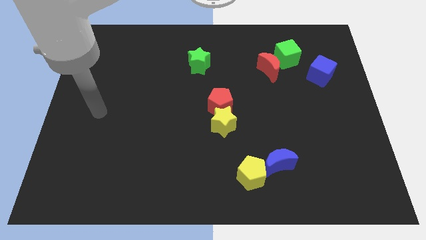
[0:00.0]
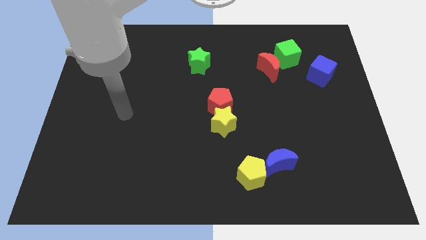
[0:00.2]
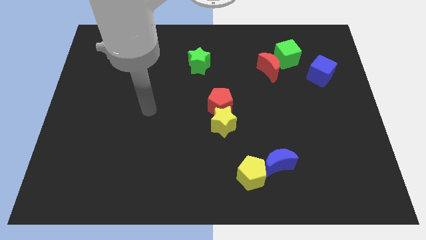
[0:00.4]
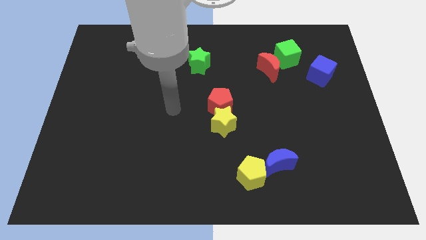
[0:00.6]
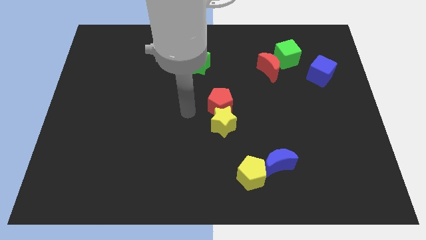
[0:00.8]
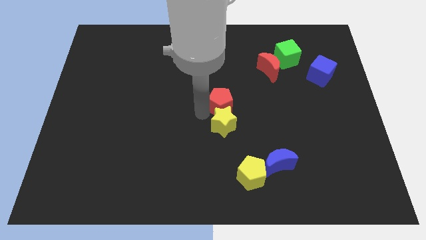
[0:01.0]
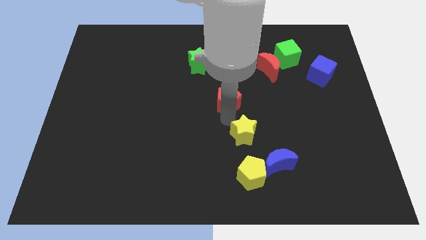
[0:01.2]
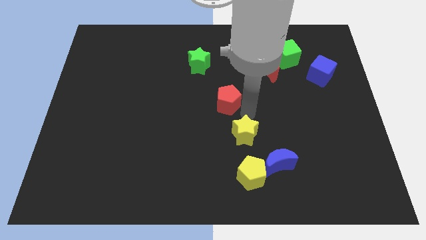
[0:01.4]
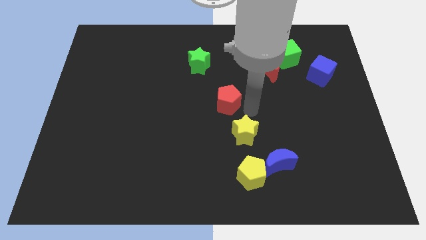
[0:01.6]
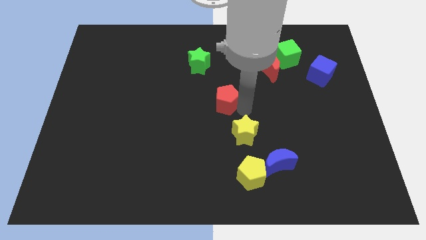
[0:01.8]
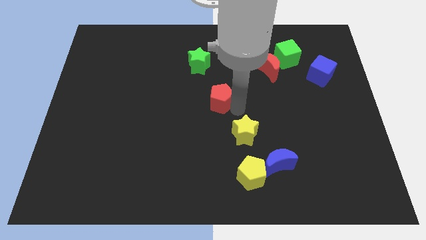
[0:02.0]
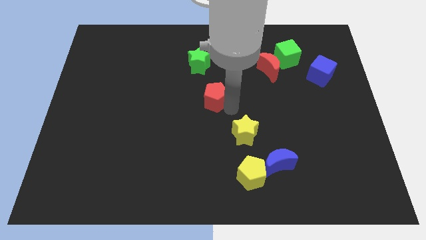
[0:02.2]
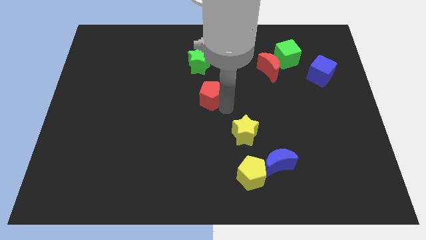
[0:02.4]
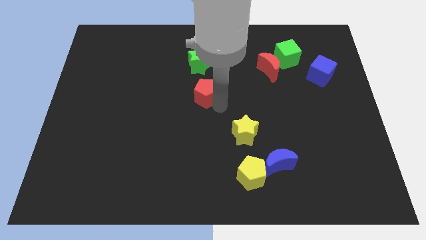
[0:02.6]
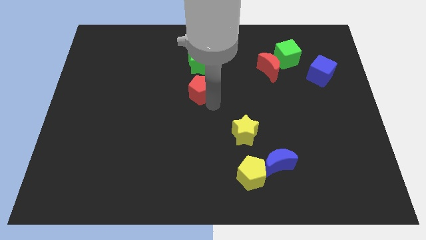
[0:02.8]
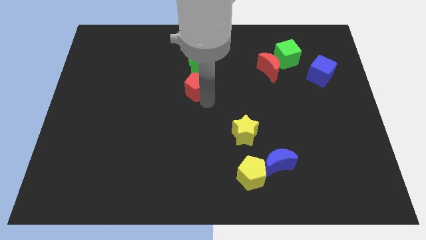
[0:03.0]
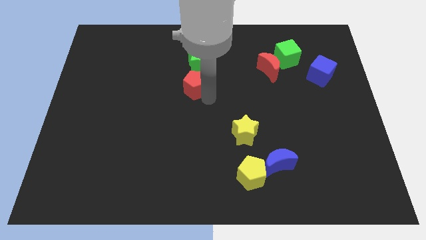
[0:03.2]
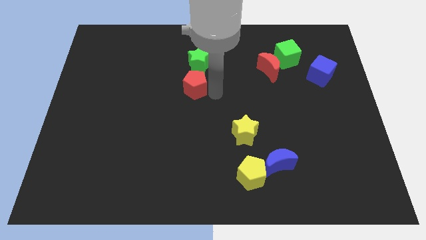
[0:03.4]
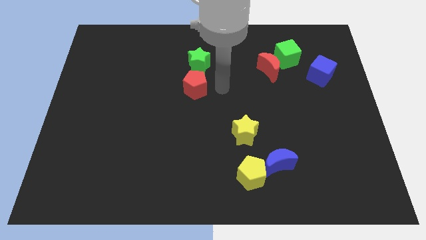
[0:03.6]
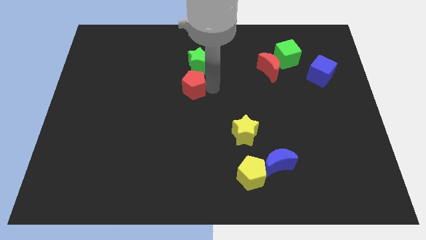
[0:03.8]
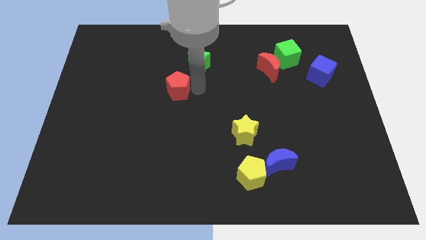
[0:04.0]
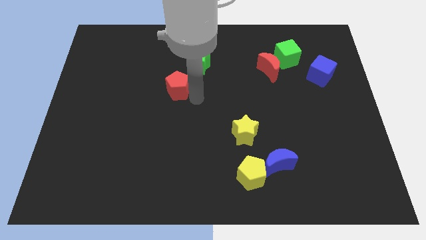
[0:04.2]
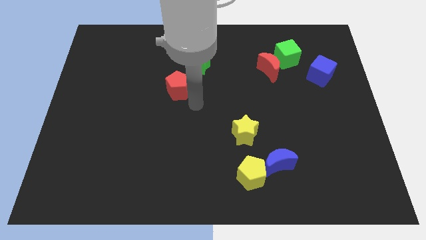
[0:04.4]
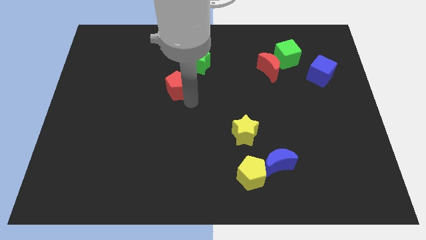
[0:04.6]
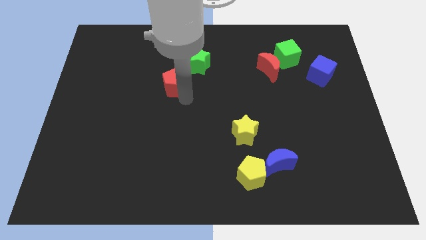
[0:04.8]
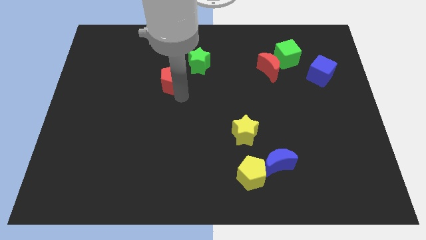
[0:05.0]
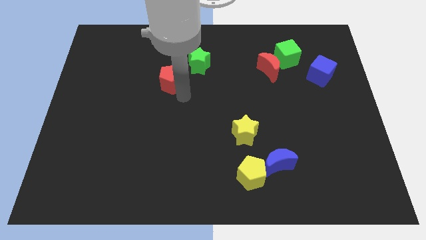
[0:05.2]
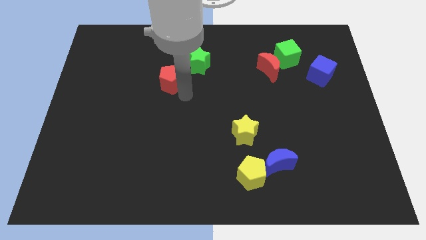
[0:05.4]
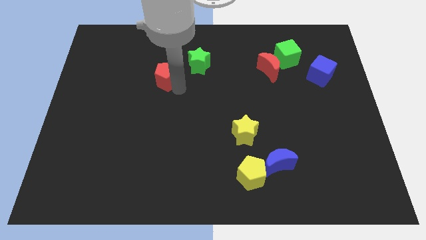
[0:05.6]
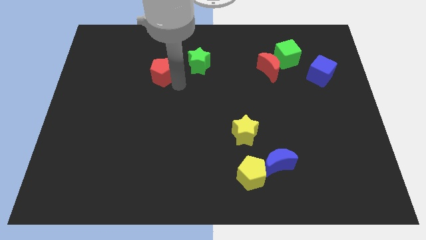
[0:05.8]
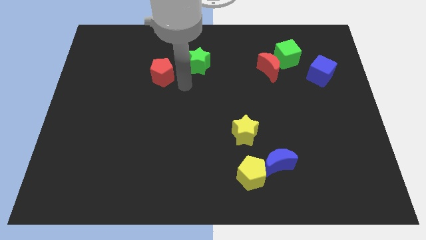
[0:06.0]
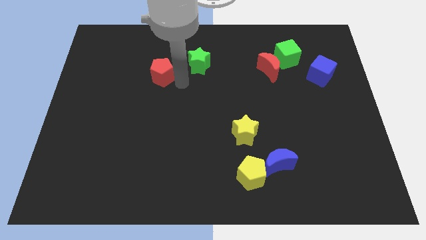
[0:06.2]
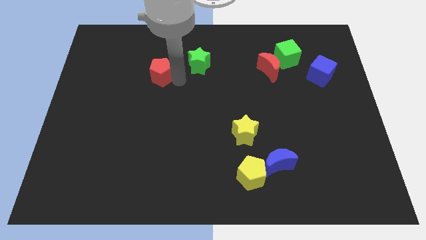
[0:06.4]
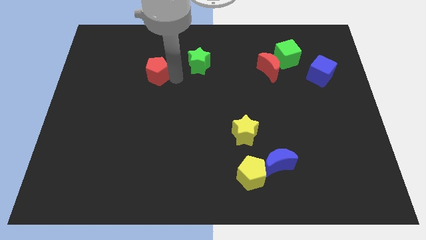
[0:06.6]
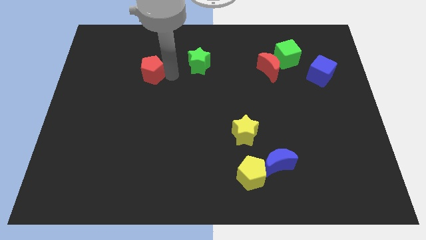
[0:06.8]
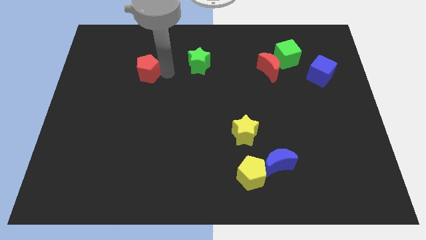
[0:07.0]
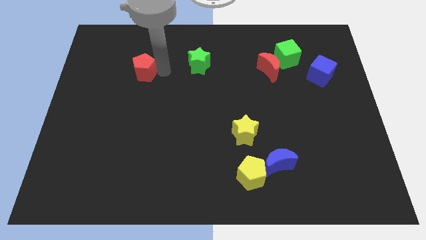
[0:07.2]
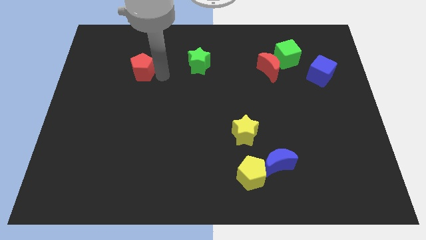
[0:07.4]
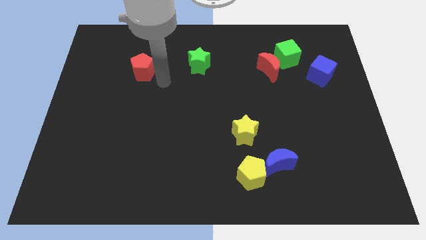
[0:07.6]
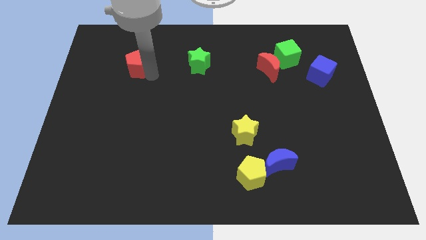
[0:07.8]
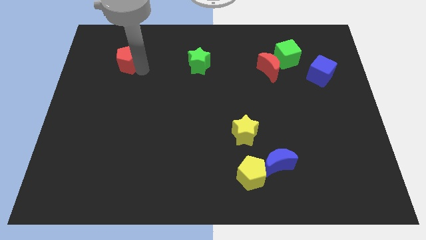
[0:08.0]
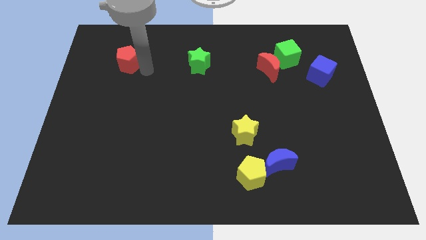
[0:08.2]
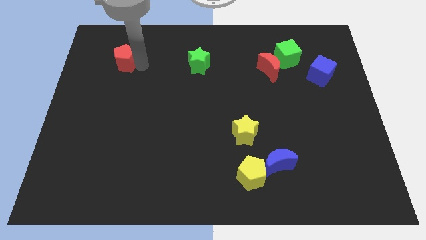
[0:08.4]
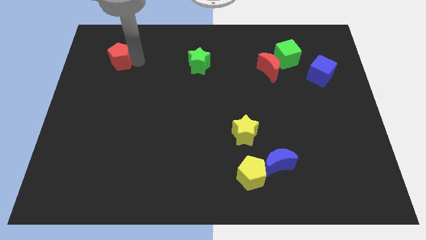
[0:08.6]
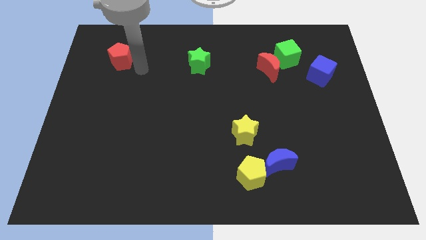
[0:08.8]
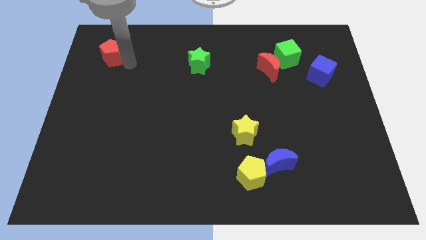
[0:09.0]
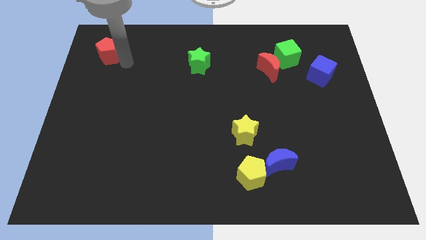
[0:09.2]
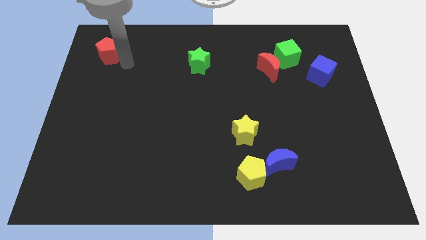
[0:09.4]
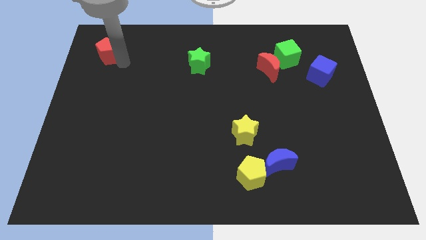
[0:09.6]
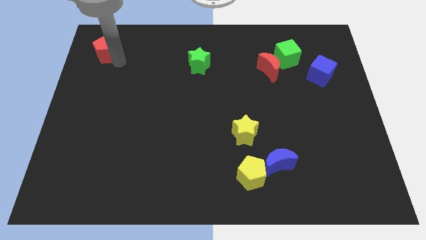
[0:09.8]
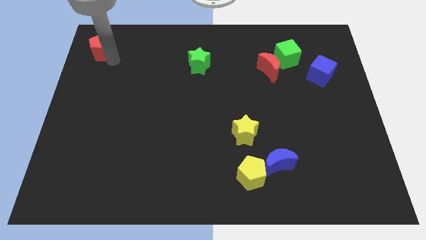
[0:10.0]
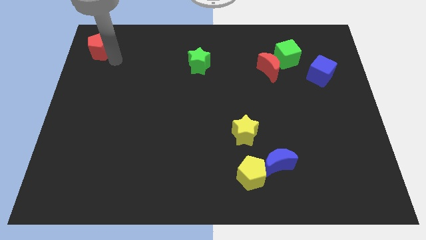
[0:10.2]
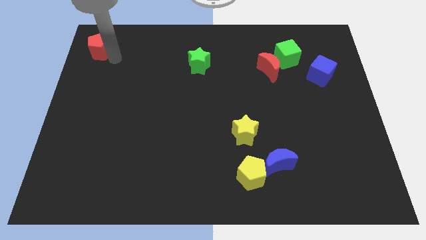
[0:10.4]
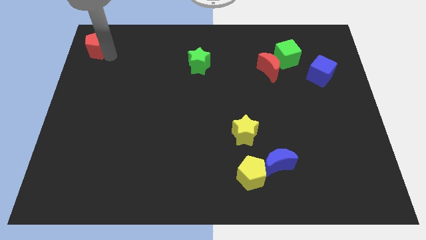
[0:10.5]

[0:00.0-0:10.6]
put the red pentagon to the top left
